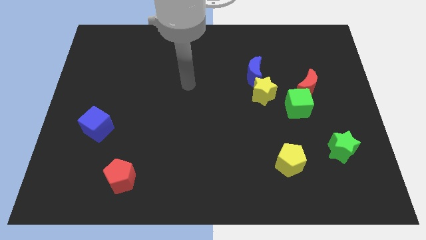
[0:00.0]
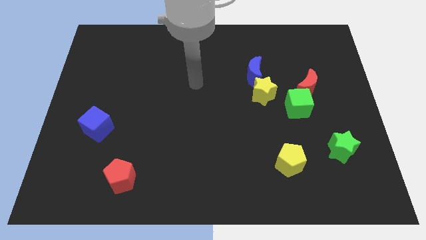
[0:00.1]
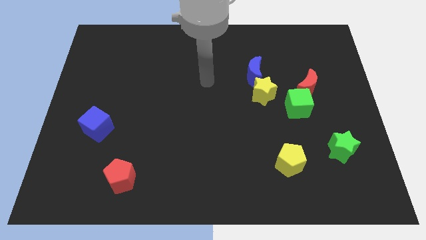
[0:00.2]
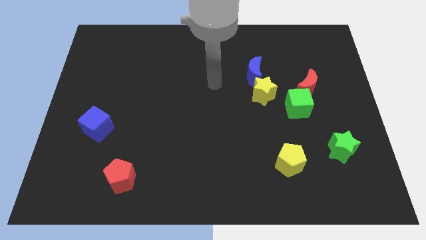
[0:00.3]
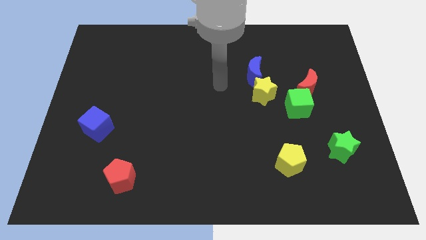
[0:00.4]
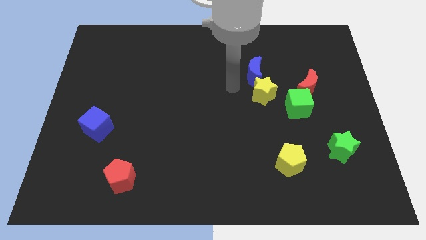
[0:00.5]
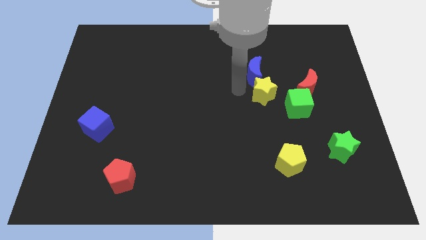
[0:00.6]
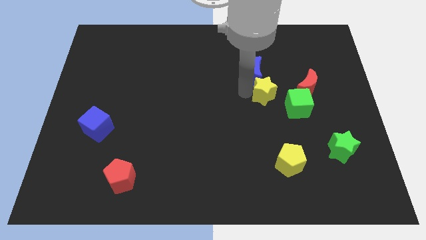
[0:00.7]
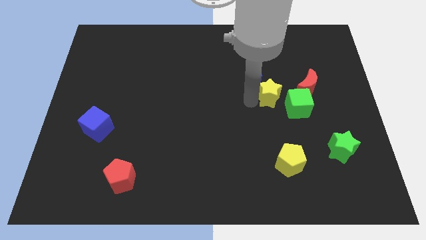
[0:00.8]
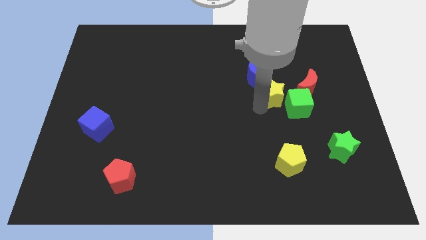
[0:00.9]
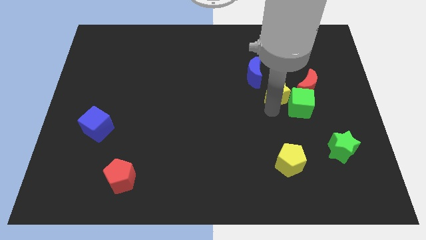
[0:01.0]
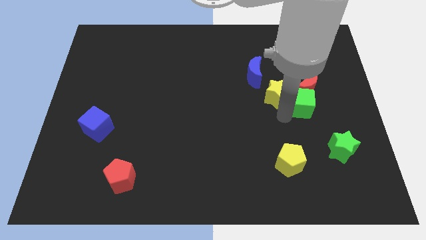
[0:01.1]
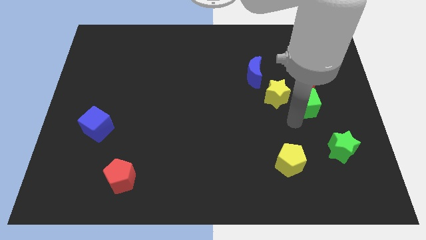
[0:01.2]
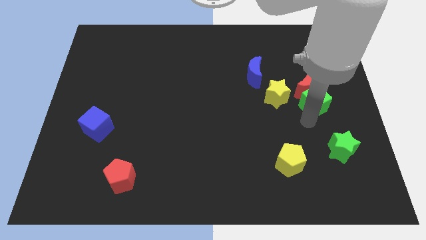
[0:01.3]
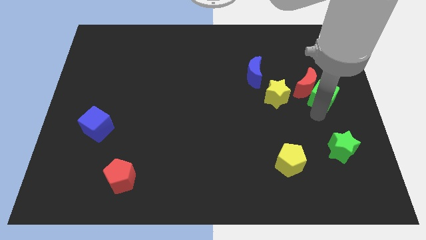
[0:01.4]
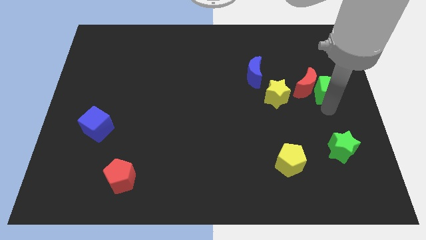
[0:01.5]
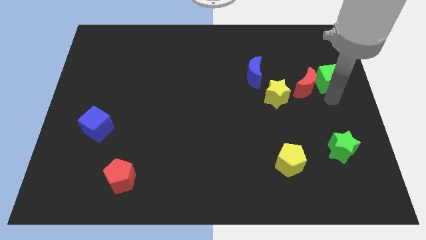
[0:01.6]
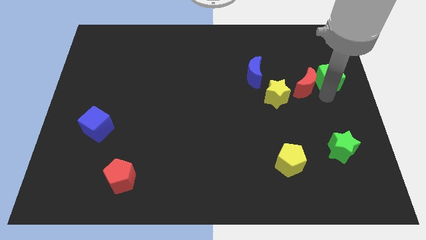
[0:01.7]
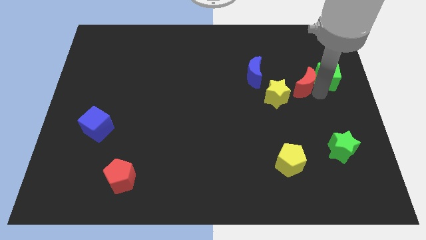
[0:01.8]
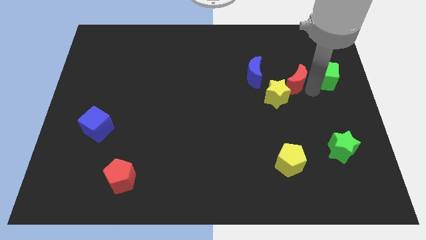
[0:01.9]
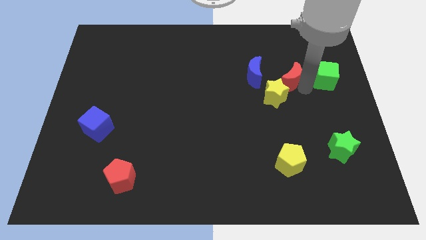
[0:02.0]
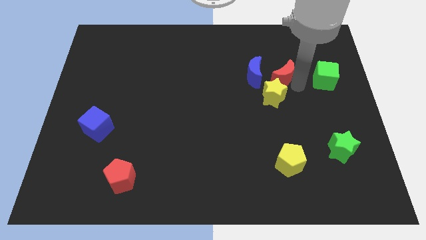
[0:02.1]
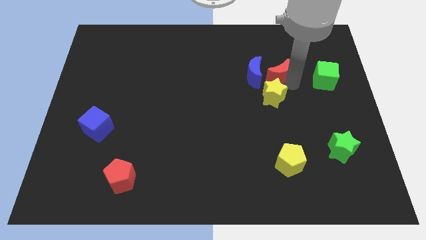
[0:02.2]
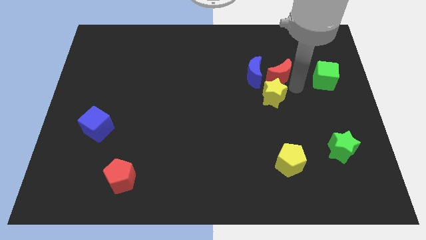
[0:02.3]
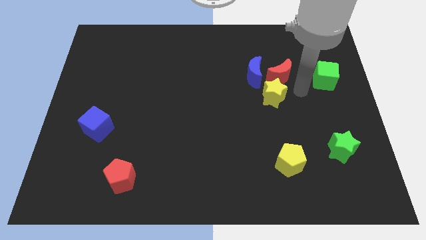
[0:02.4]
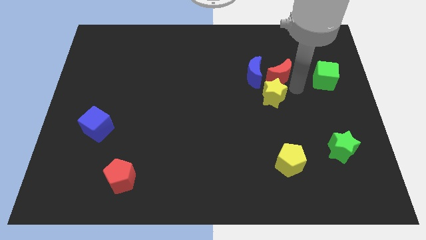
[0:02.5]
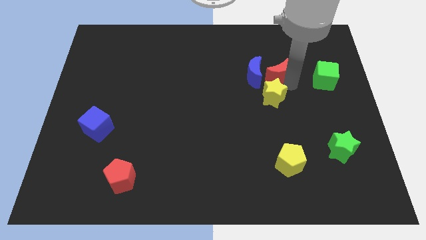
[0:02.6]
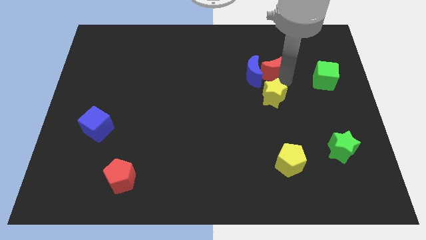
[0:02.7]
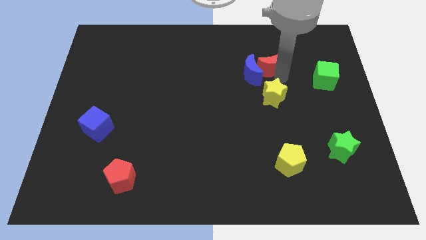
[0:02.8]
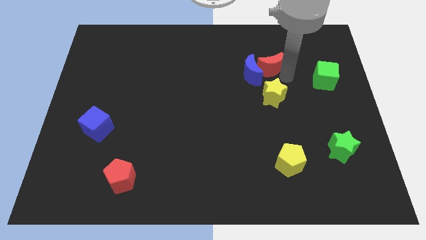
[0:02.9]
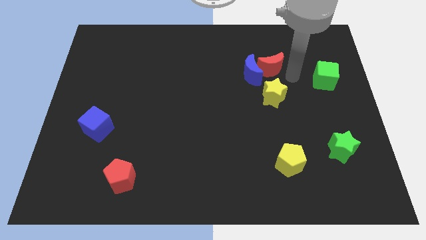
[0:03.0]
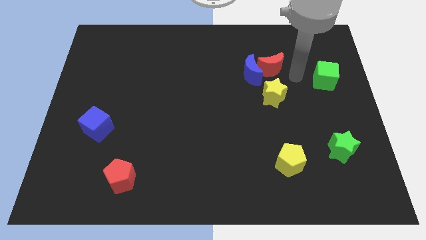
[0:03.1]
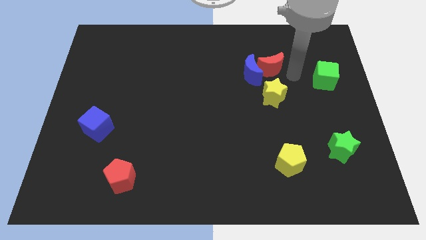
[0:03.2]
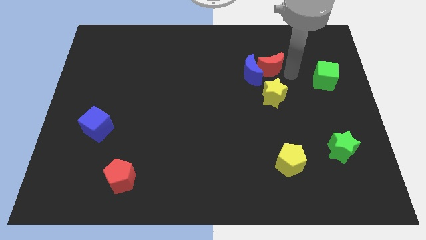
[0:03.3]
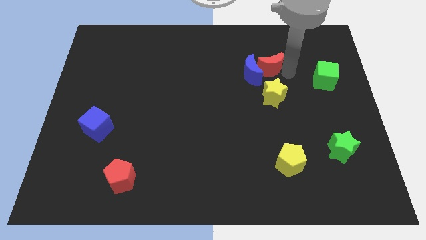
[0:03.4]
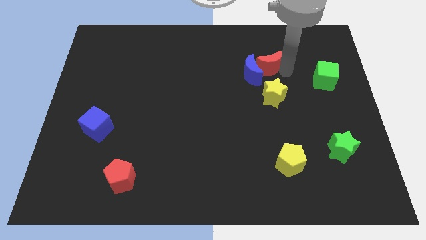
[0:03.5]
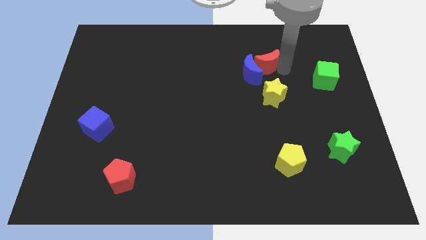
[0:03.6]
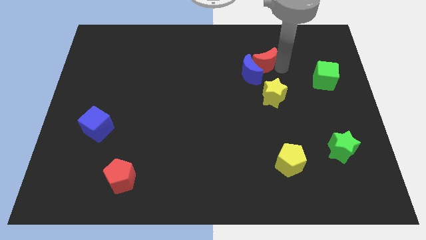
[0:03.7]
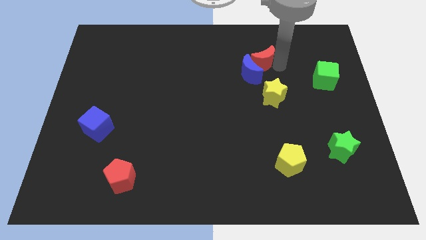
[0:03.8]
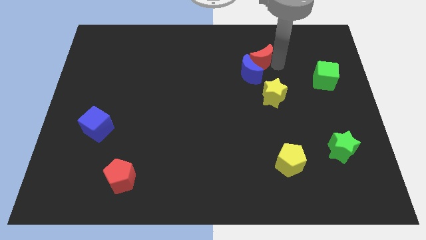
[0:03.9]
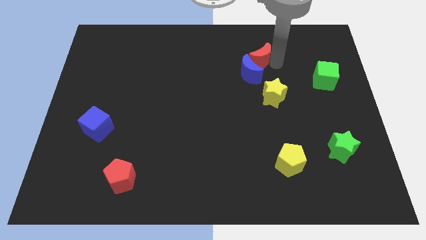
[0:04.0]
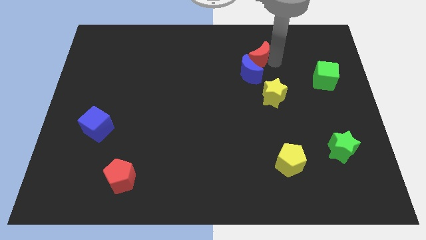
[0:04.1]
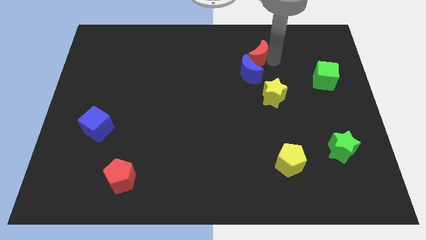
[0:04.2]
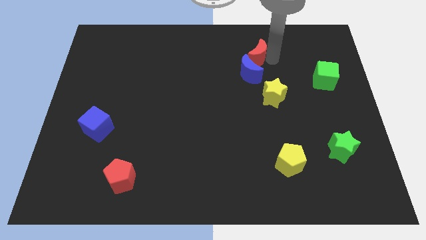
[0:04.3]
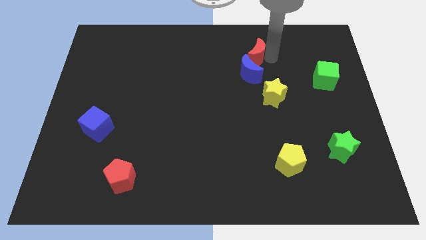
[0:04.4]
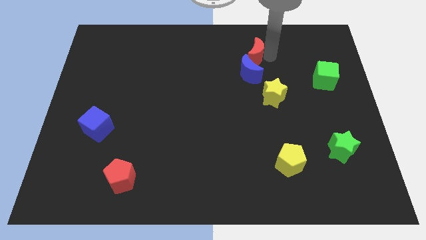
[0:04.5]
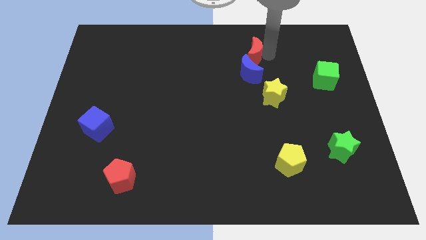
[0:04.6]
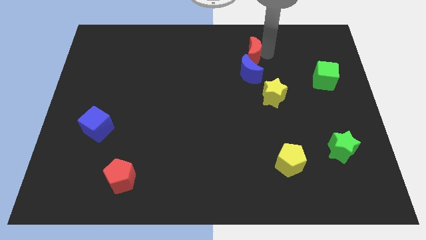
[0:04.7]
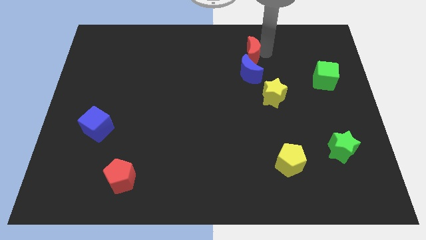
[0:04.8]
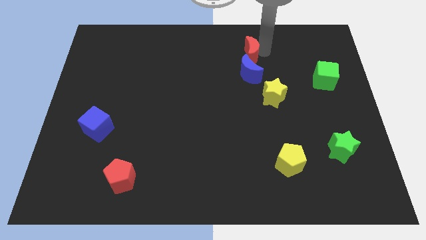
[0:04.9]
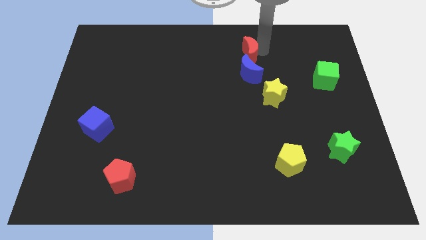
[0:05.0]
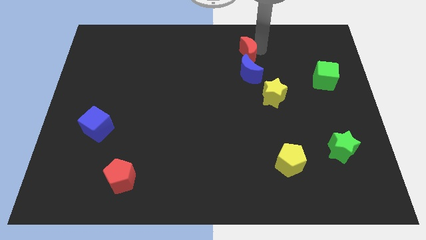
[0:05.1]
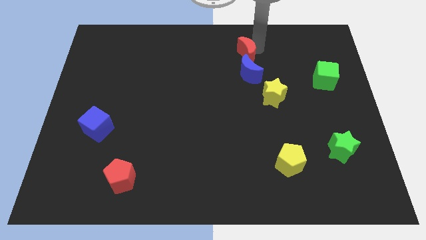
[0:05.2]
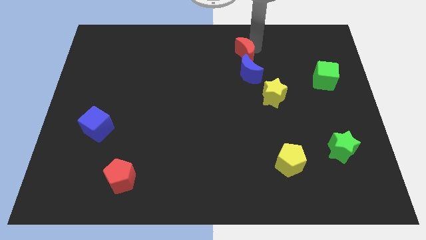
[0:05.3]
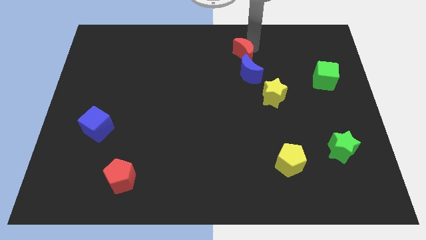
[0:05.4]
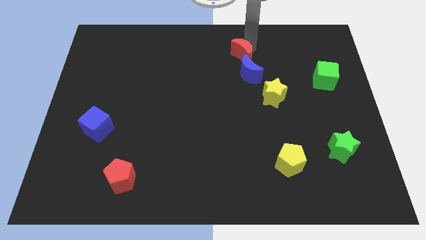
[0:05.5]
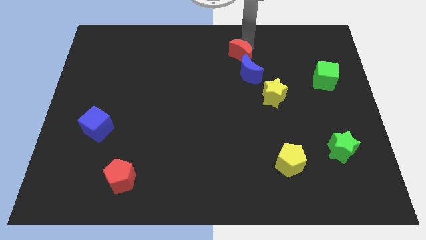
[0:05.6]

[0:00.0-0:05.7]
push the red moon to the left a little

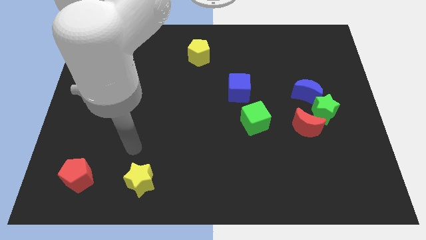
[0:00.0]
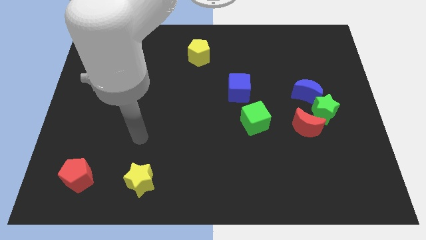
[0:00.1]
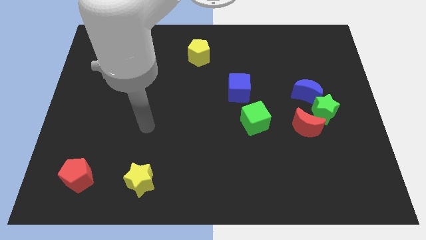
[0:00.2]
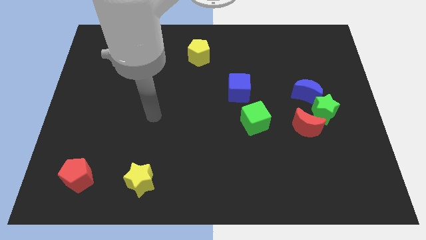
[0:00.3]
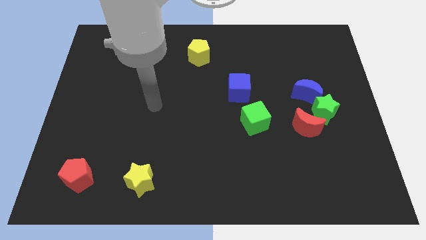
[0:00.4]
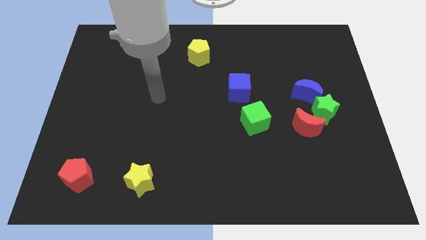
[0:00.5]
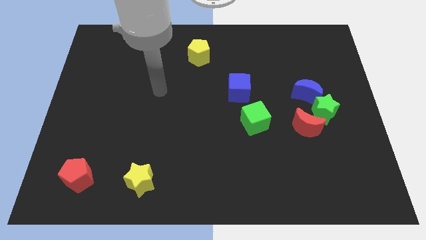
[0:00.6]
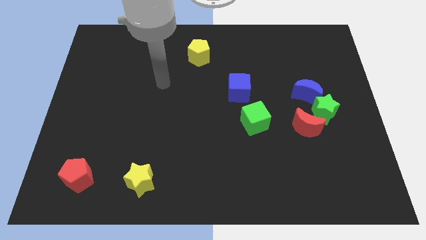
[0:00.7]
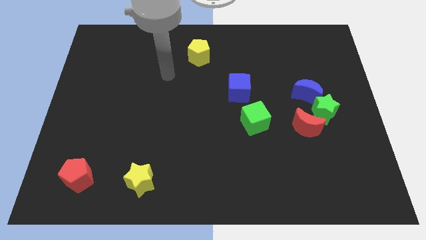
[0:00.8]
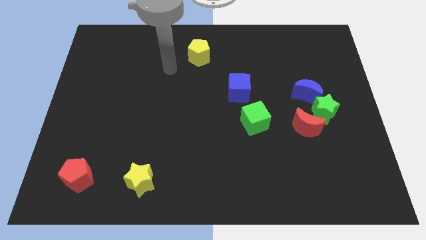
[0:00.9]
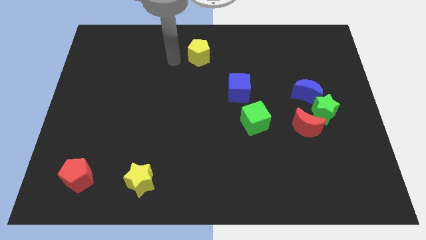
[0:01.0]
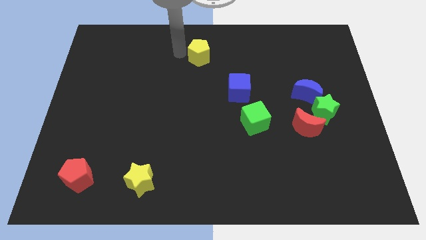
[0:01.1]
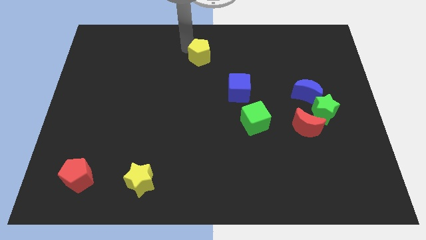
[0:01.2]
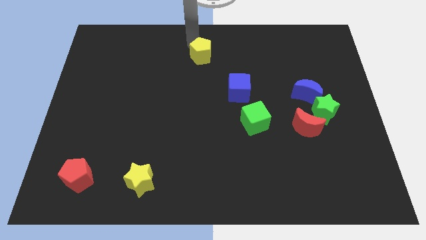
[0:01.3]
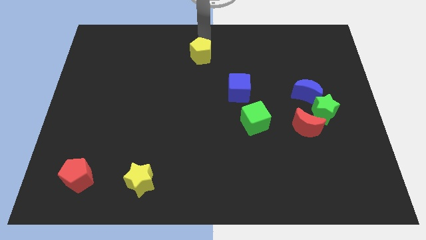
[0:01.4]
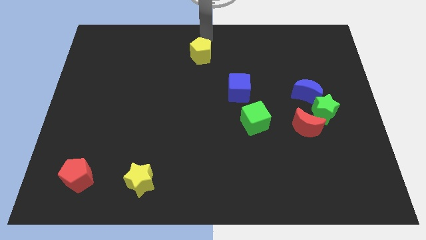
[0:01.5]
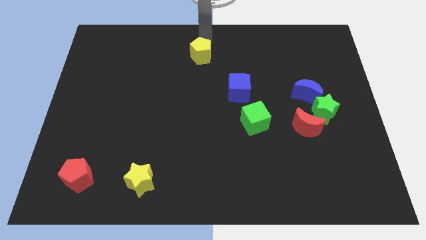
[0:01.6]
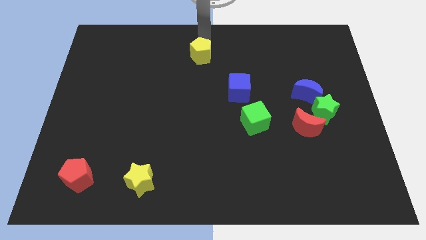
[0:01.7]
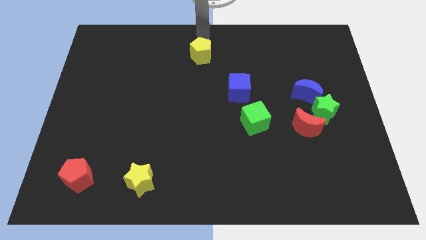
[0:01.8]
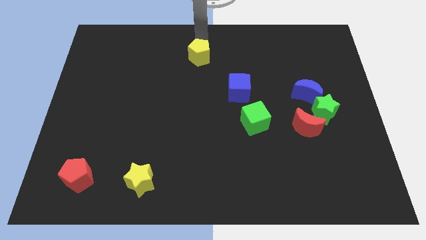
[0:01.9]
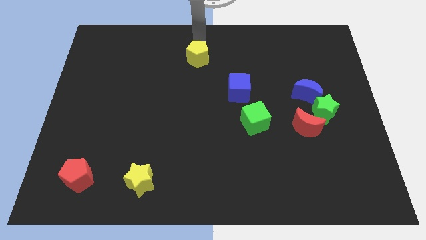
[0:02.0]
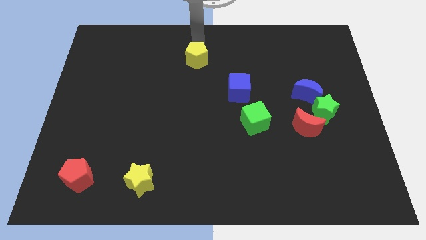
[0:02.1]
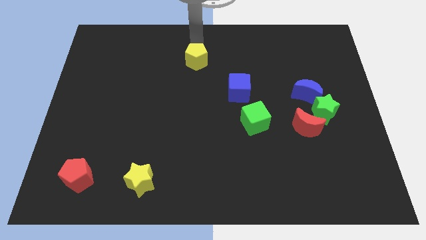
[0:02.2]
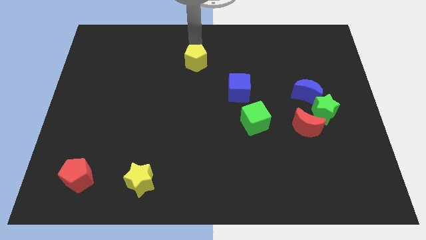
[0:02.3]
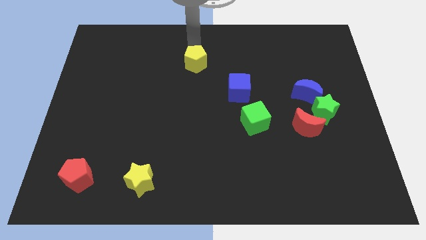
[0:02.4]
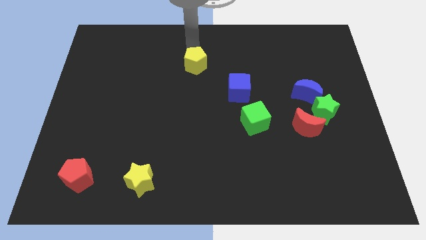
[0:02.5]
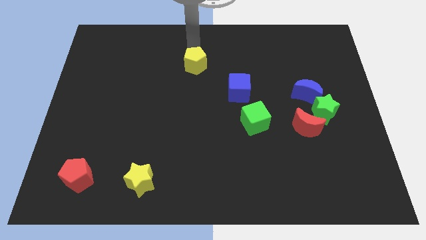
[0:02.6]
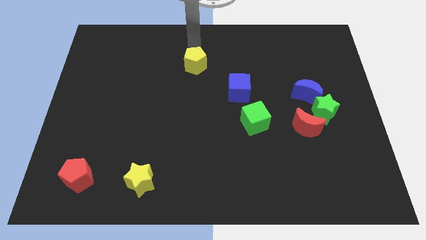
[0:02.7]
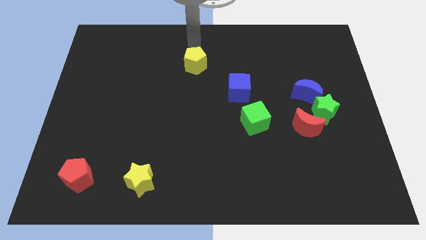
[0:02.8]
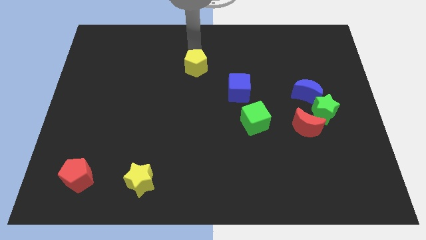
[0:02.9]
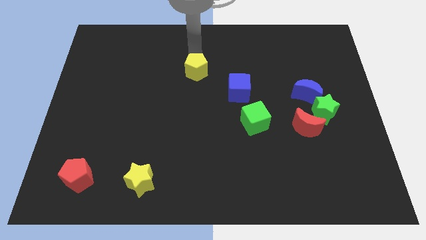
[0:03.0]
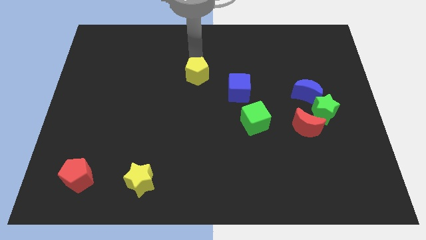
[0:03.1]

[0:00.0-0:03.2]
move the yellow pentagon down somewhat

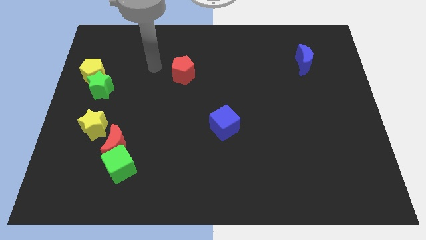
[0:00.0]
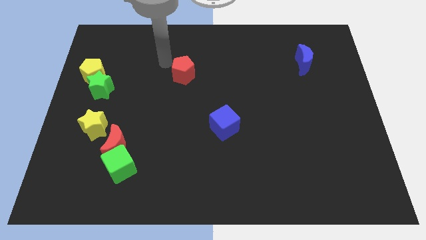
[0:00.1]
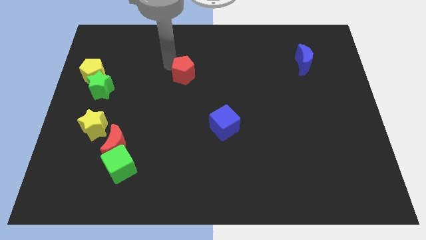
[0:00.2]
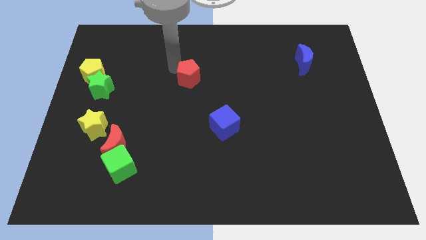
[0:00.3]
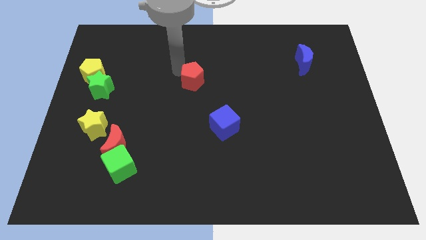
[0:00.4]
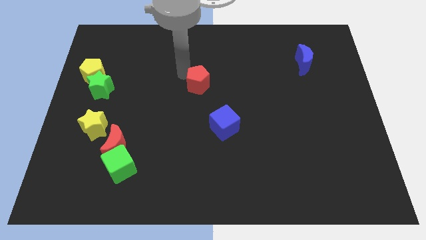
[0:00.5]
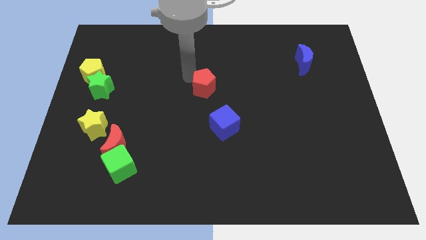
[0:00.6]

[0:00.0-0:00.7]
push the red pentagon slightly down and then to the right
